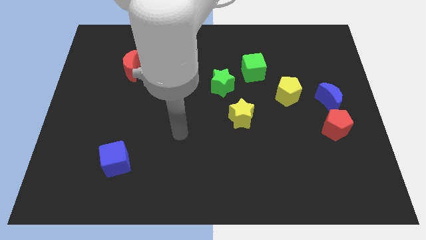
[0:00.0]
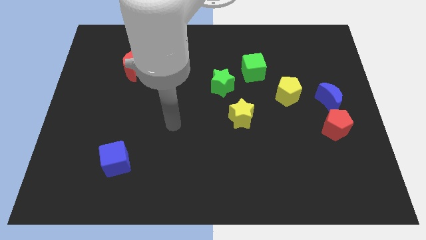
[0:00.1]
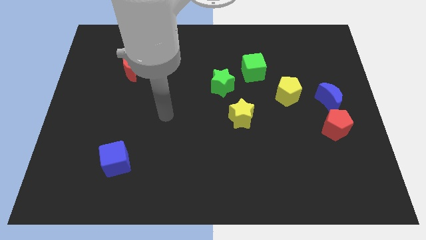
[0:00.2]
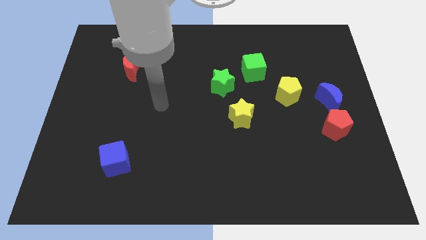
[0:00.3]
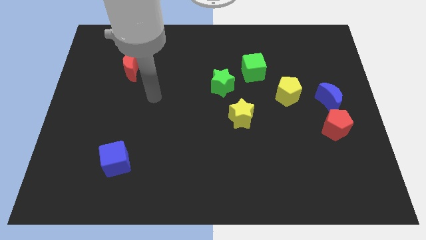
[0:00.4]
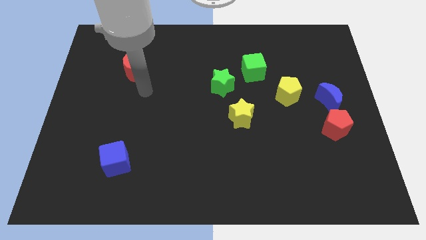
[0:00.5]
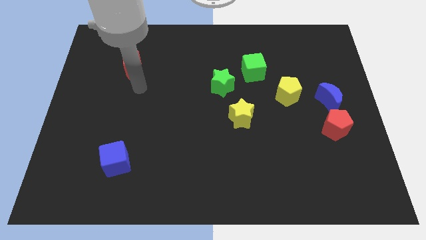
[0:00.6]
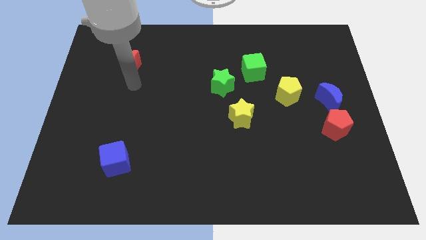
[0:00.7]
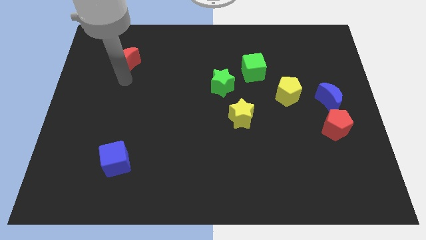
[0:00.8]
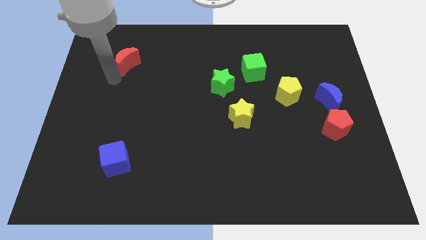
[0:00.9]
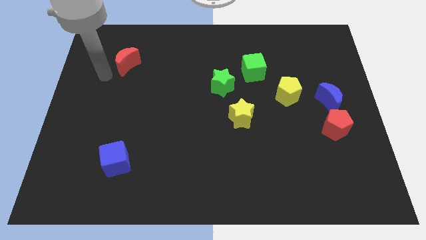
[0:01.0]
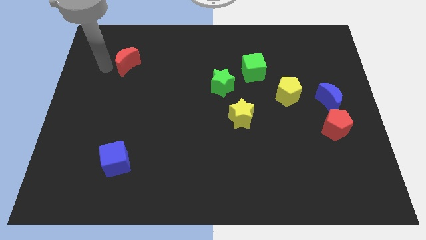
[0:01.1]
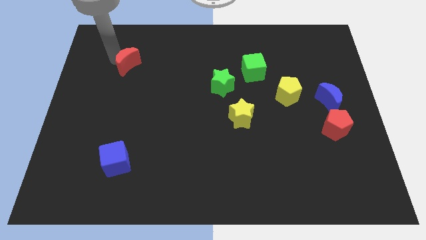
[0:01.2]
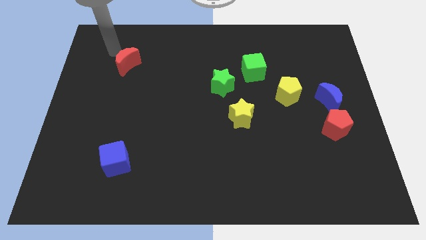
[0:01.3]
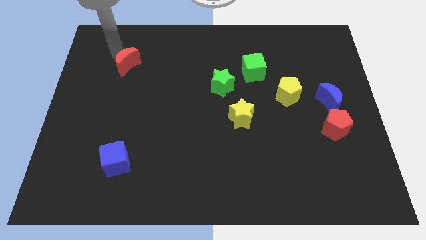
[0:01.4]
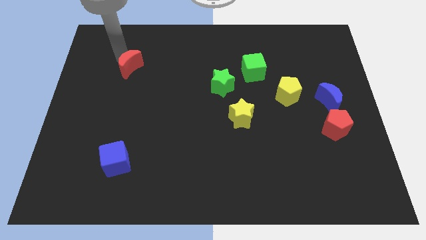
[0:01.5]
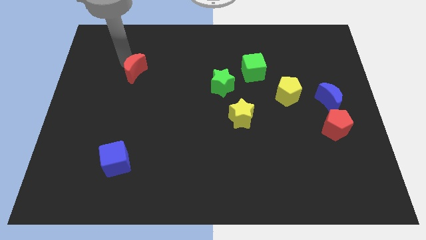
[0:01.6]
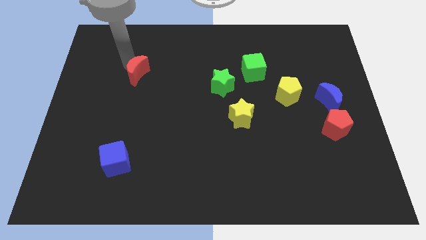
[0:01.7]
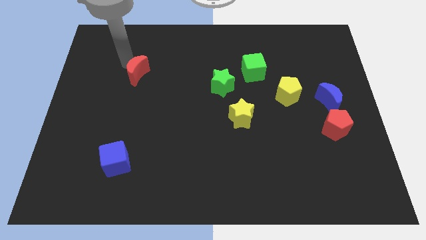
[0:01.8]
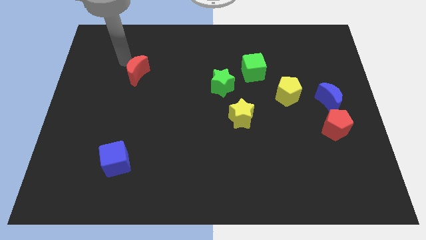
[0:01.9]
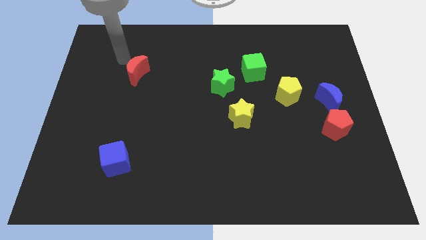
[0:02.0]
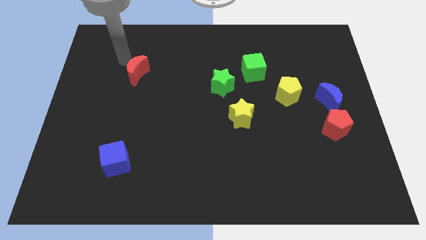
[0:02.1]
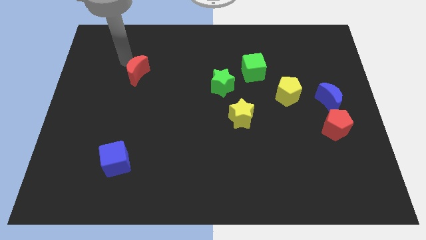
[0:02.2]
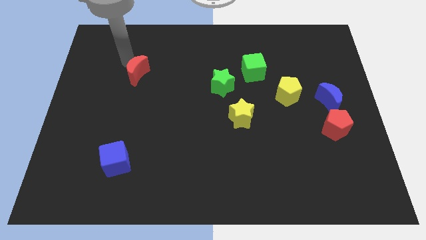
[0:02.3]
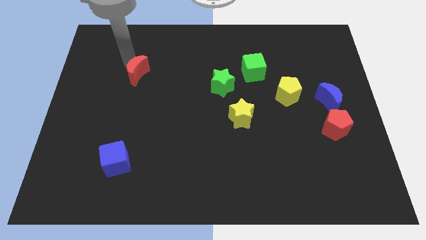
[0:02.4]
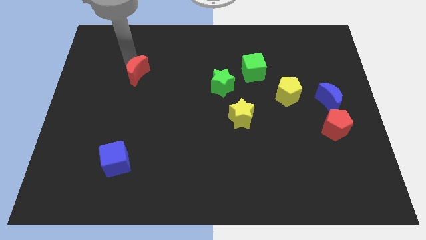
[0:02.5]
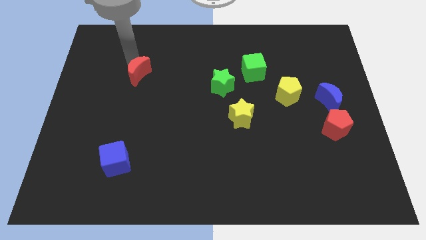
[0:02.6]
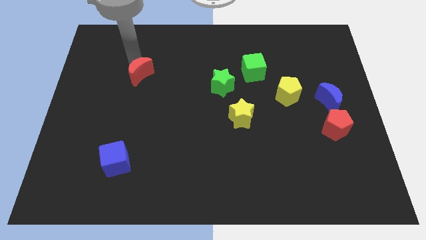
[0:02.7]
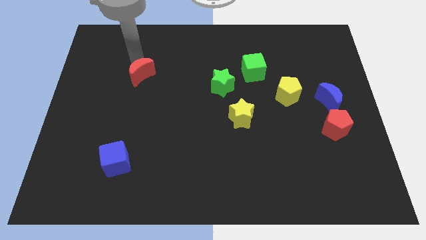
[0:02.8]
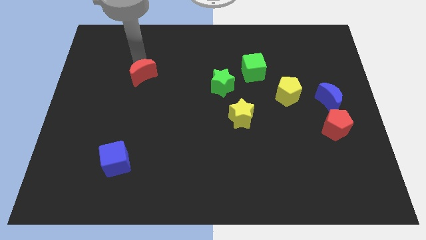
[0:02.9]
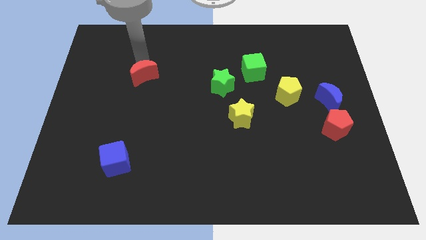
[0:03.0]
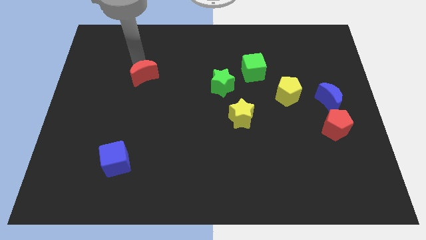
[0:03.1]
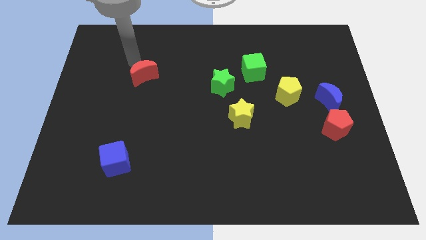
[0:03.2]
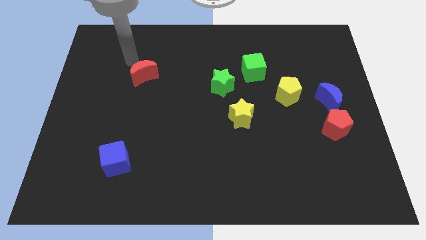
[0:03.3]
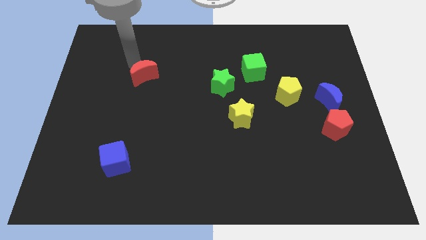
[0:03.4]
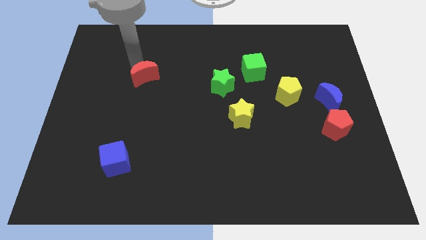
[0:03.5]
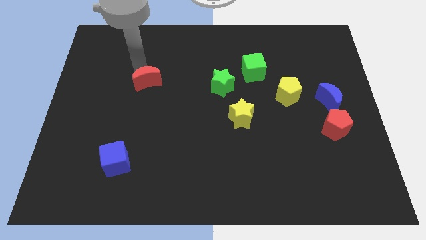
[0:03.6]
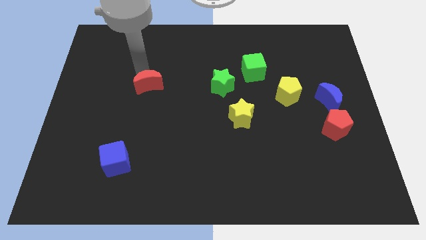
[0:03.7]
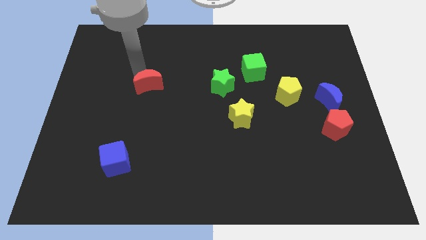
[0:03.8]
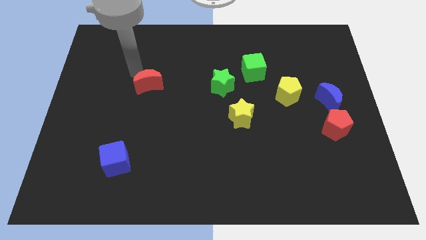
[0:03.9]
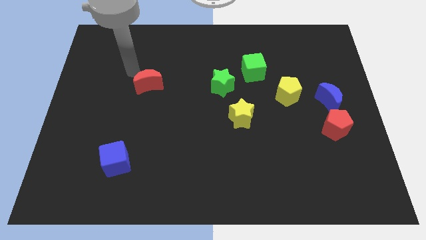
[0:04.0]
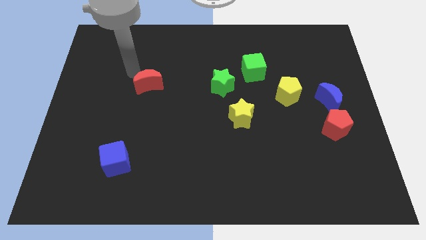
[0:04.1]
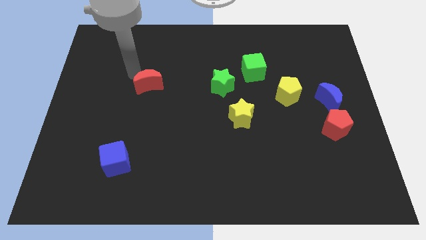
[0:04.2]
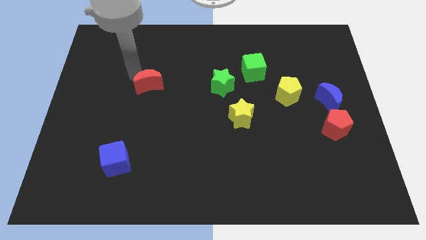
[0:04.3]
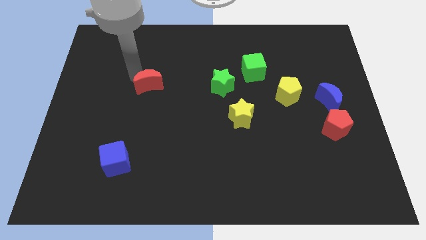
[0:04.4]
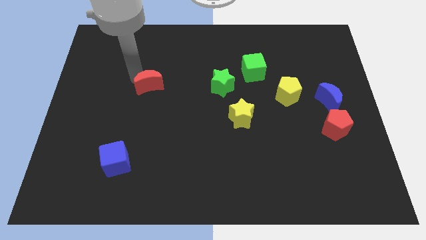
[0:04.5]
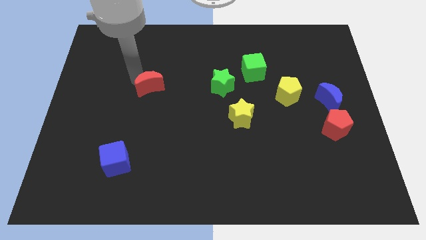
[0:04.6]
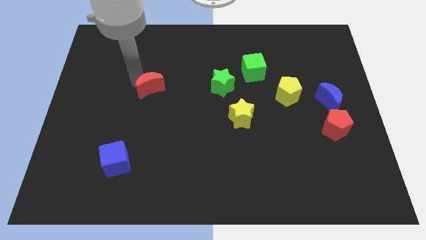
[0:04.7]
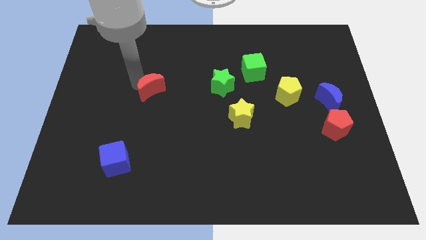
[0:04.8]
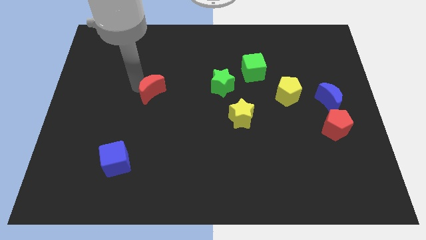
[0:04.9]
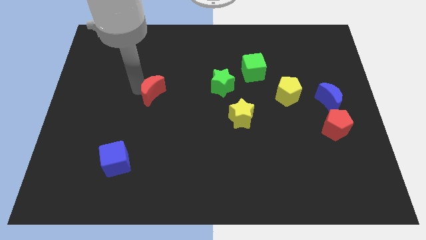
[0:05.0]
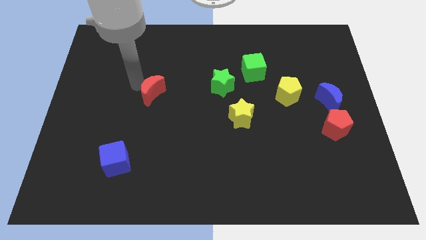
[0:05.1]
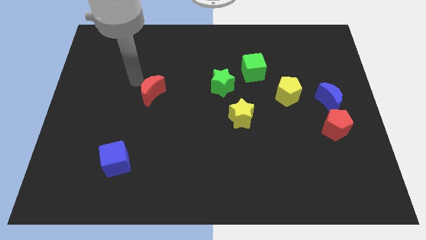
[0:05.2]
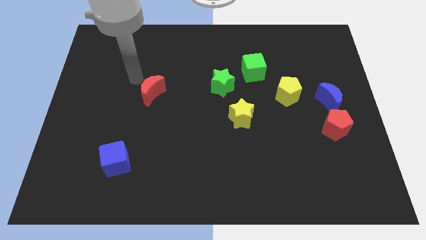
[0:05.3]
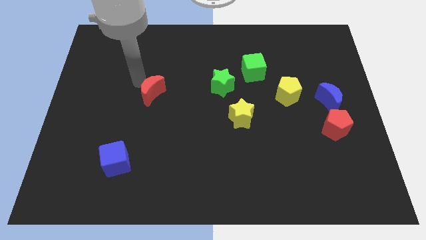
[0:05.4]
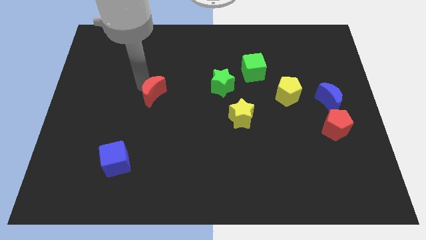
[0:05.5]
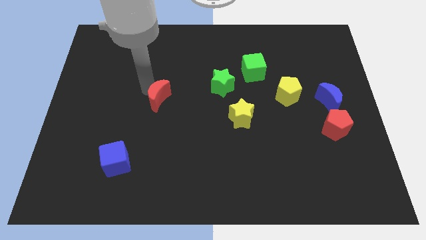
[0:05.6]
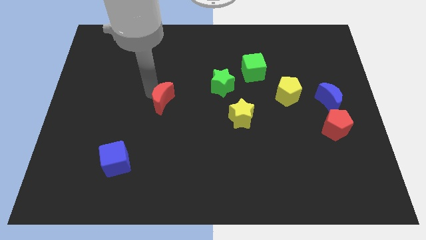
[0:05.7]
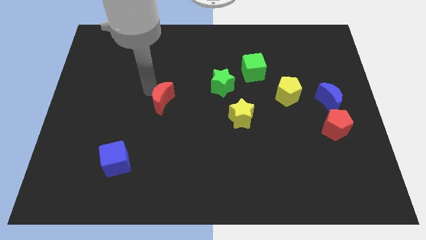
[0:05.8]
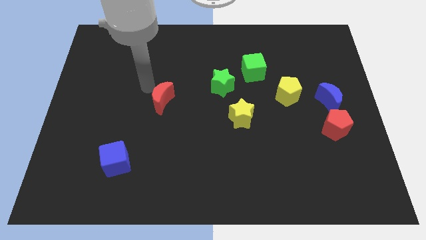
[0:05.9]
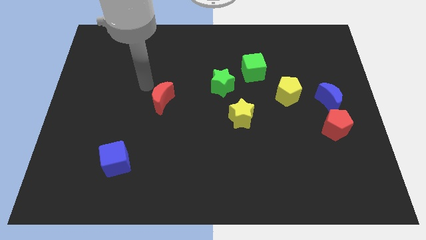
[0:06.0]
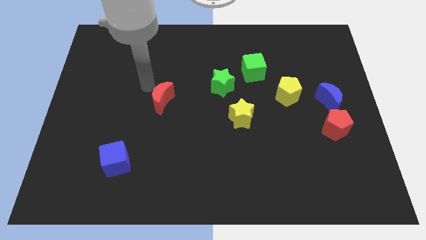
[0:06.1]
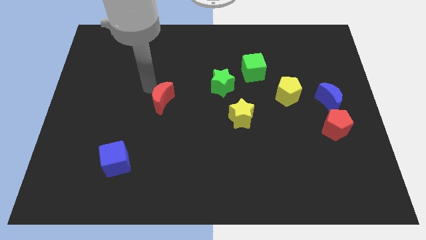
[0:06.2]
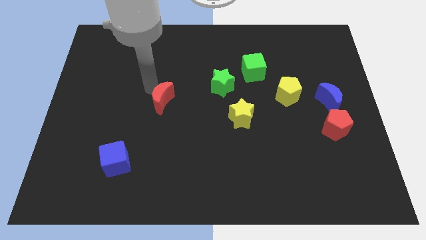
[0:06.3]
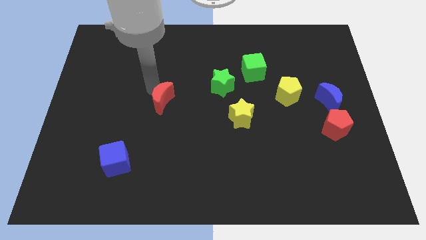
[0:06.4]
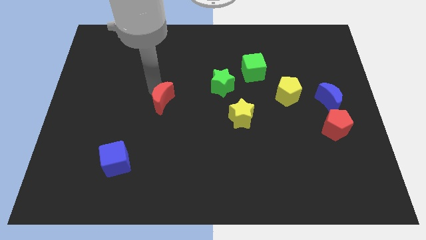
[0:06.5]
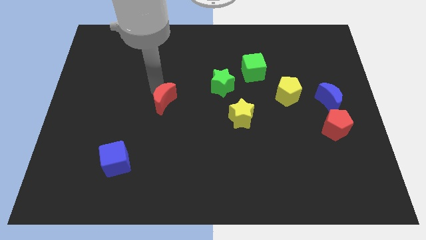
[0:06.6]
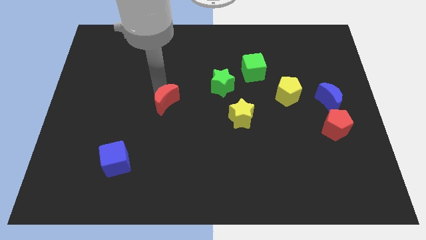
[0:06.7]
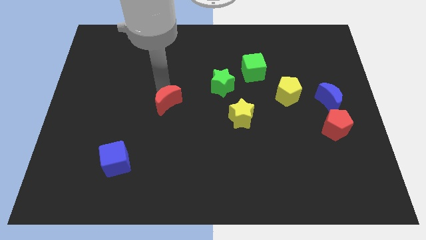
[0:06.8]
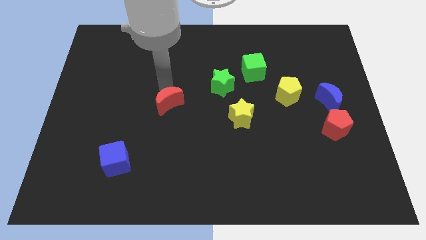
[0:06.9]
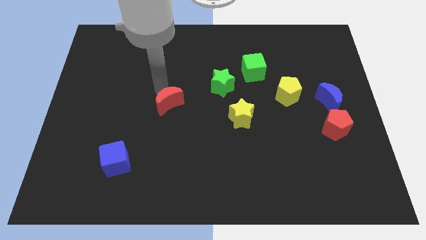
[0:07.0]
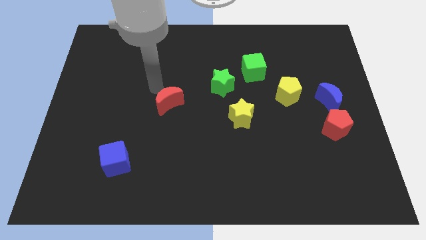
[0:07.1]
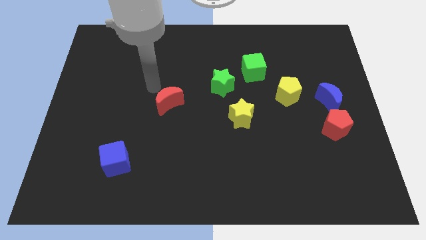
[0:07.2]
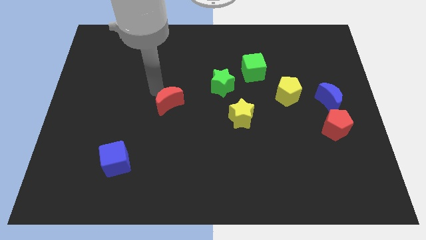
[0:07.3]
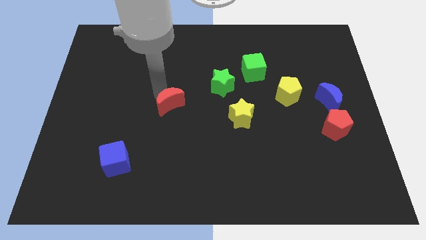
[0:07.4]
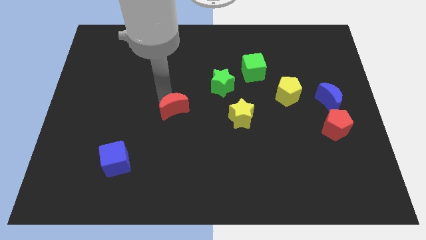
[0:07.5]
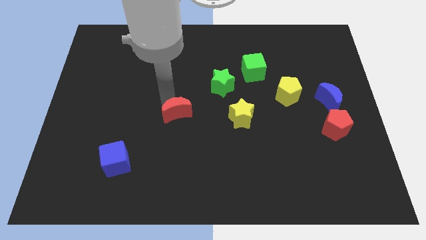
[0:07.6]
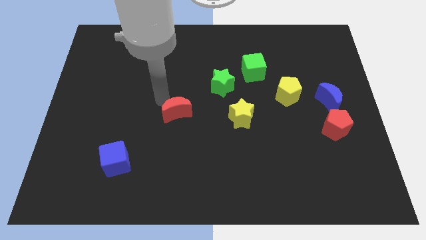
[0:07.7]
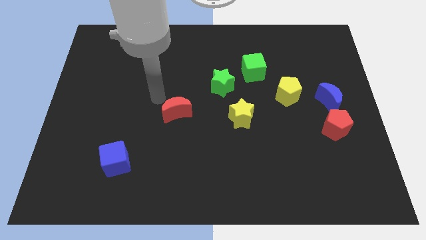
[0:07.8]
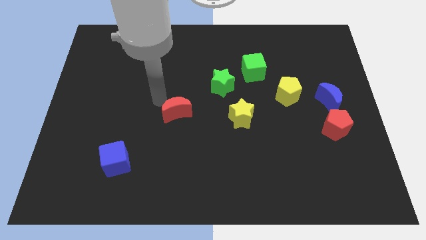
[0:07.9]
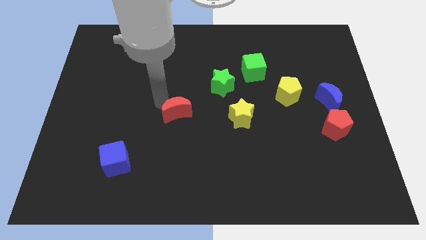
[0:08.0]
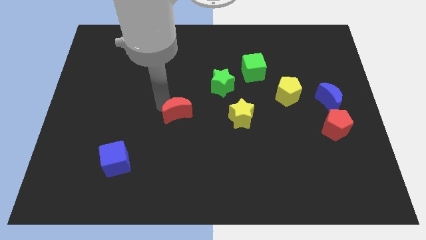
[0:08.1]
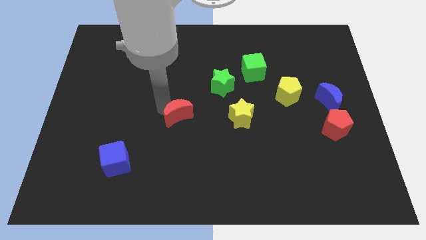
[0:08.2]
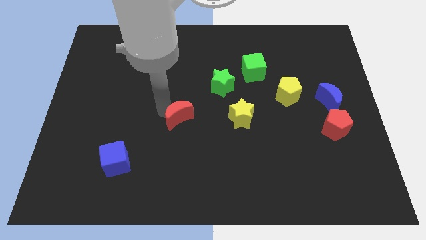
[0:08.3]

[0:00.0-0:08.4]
push the red moon down and right
